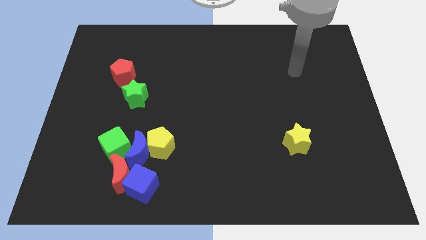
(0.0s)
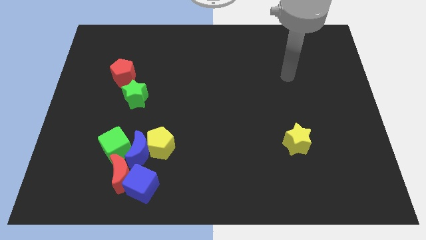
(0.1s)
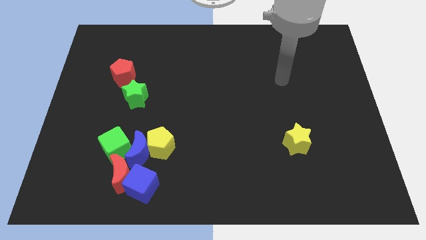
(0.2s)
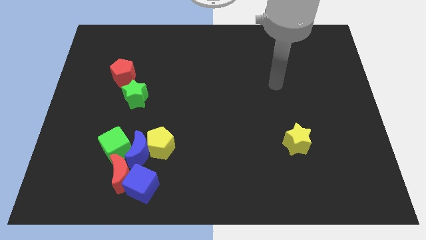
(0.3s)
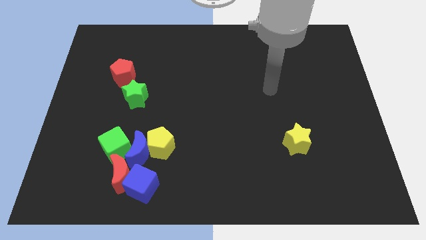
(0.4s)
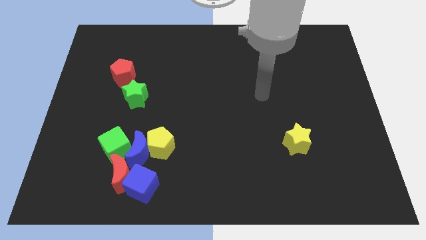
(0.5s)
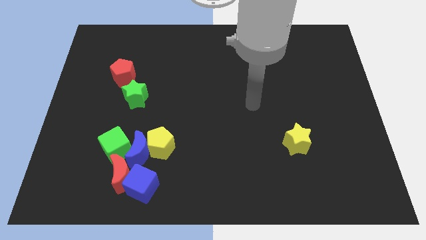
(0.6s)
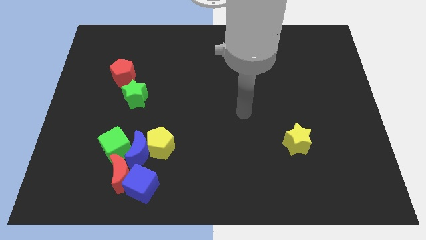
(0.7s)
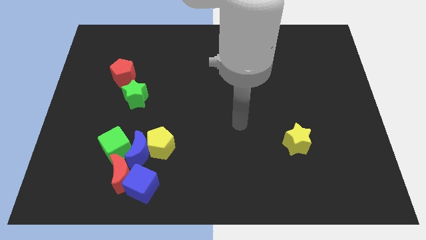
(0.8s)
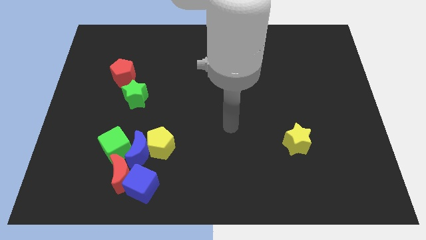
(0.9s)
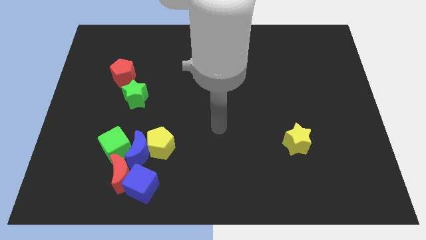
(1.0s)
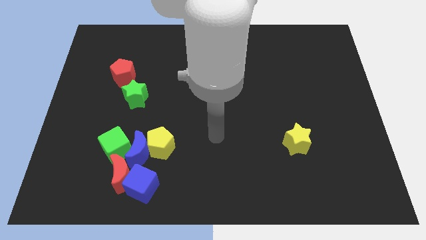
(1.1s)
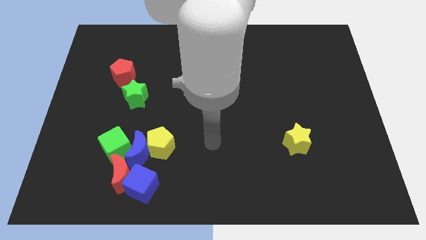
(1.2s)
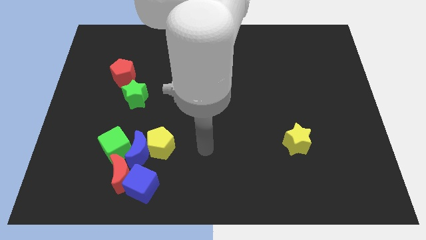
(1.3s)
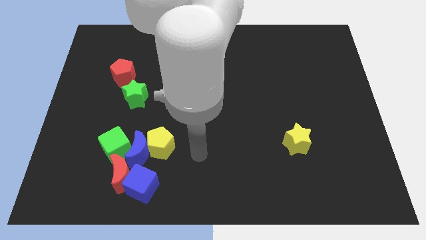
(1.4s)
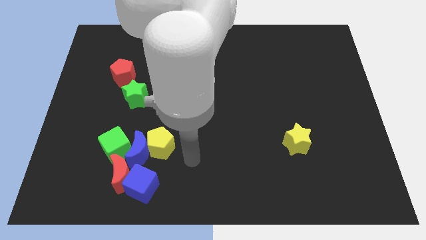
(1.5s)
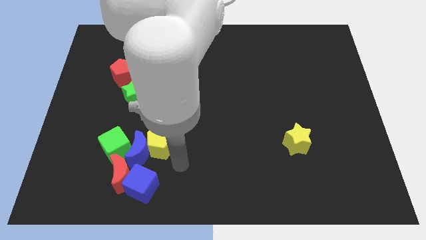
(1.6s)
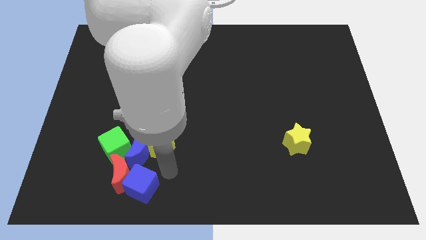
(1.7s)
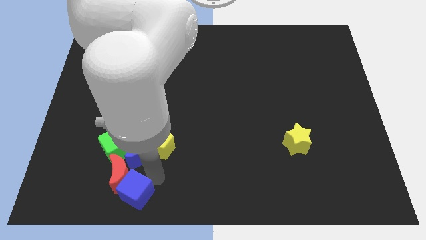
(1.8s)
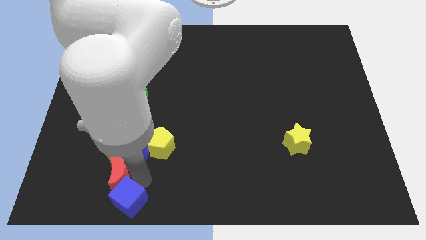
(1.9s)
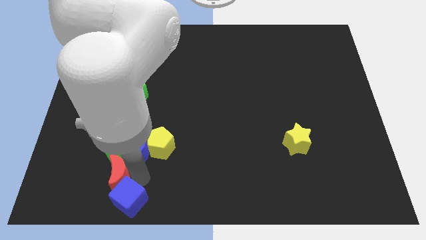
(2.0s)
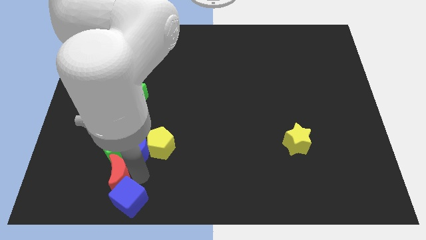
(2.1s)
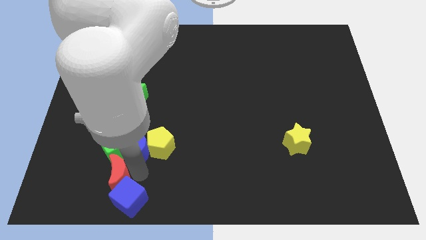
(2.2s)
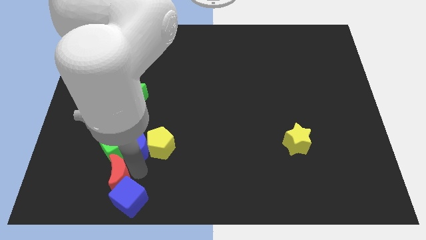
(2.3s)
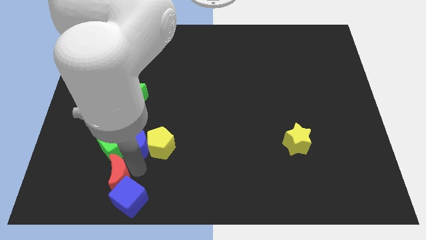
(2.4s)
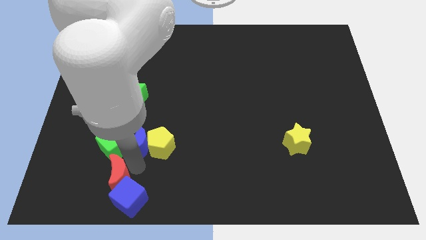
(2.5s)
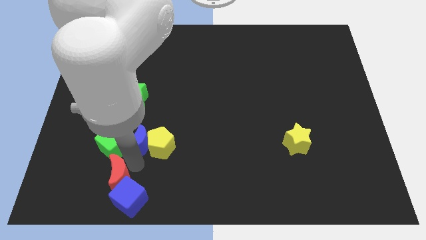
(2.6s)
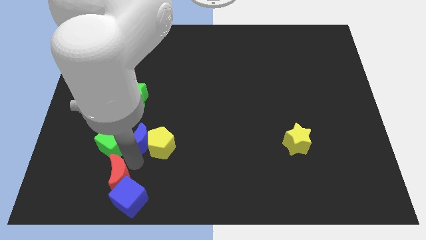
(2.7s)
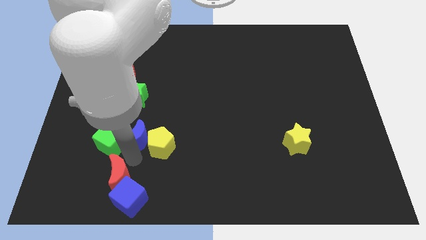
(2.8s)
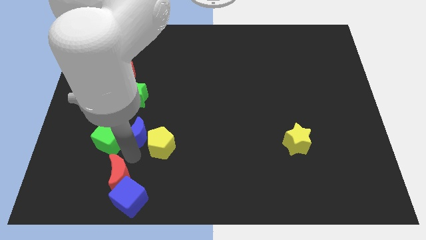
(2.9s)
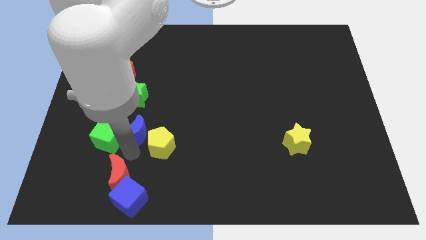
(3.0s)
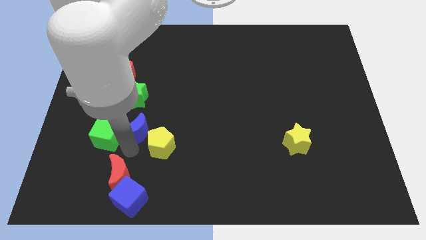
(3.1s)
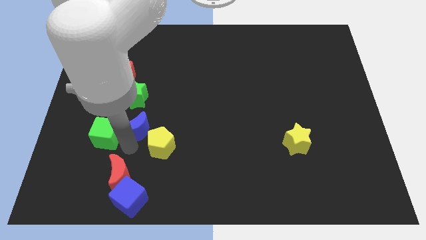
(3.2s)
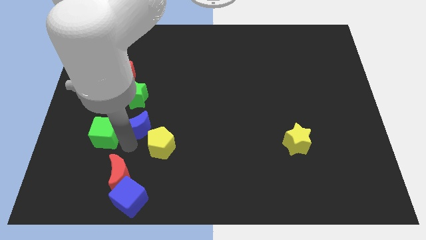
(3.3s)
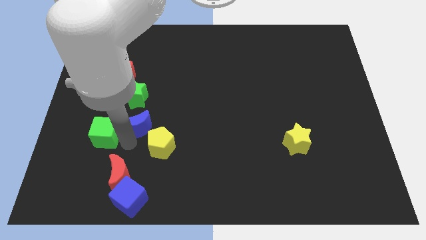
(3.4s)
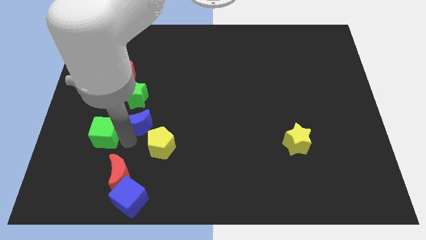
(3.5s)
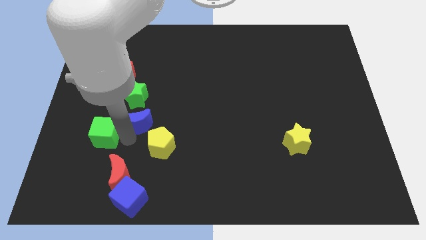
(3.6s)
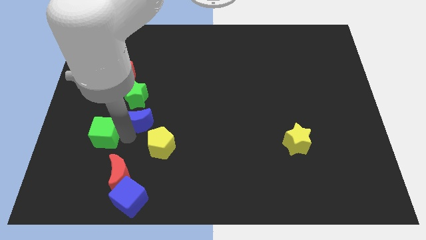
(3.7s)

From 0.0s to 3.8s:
pull the blue moon apart from the group

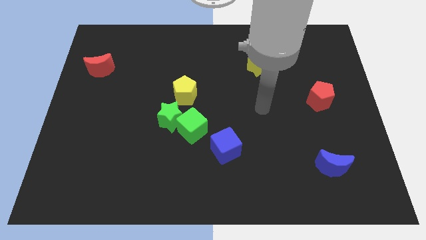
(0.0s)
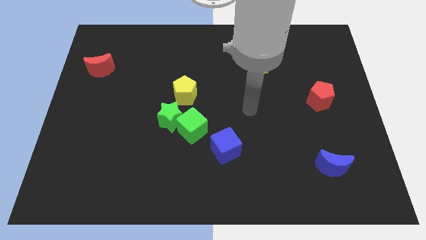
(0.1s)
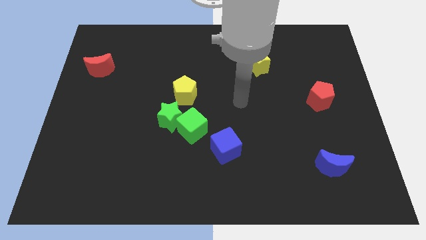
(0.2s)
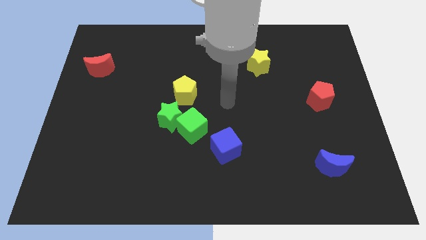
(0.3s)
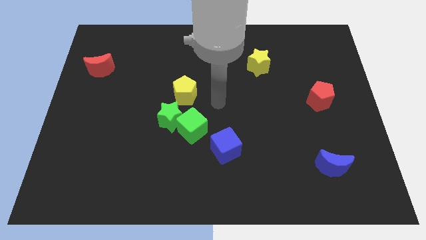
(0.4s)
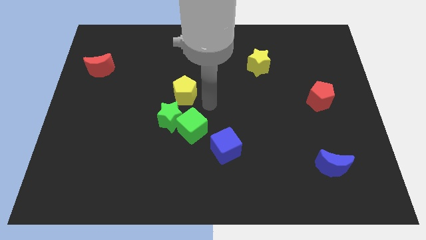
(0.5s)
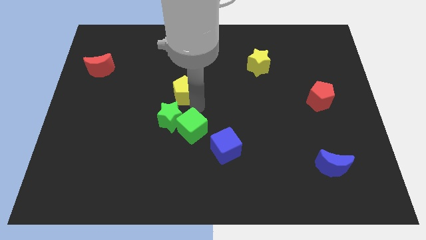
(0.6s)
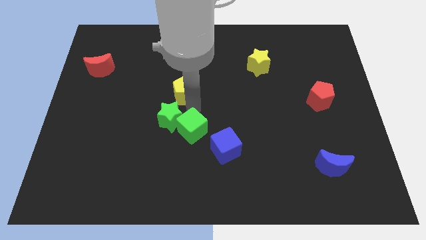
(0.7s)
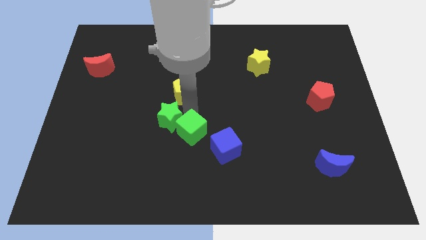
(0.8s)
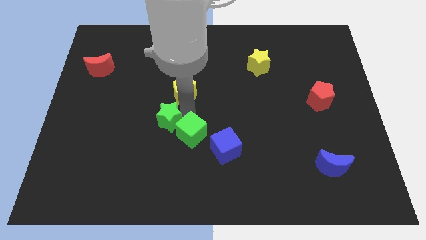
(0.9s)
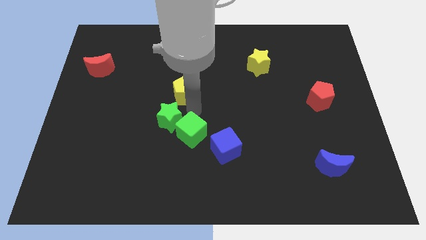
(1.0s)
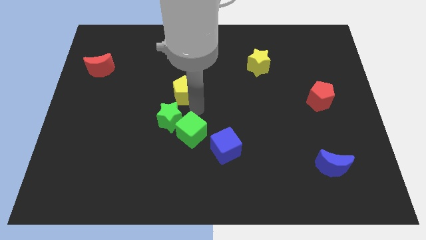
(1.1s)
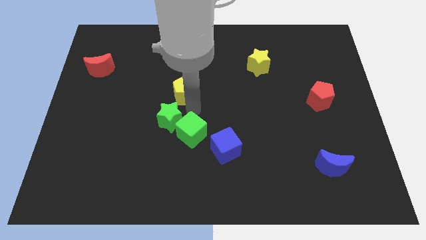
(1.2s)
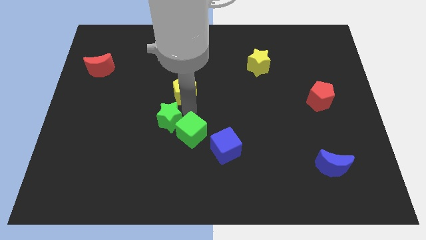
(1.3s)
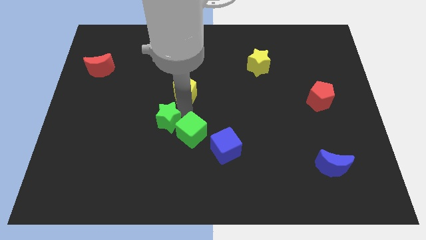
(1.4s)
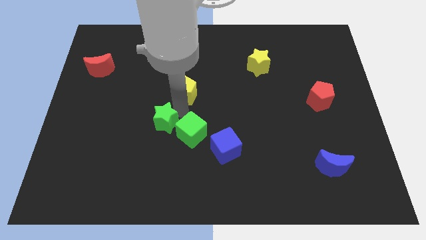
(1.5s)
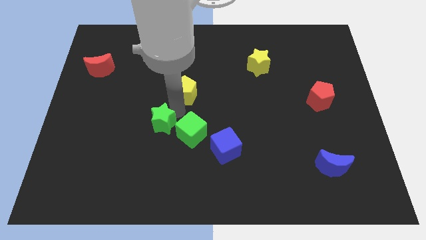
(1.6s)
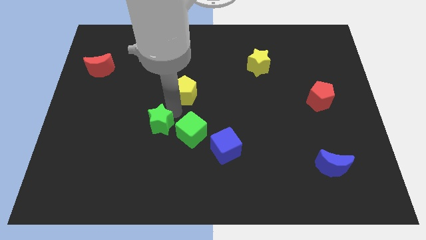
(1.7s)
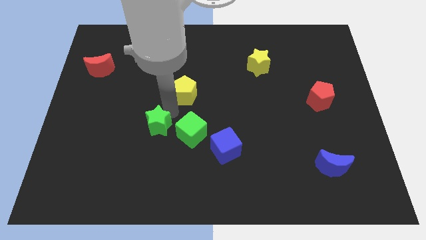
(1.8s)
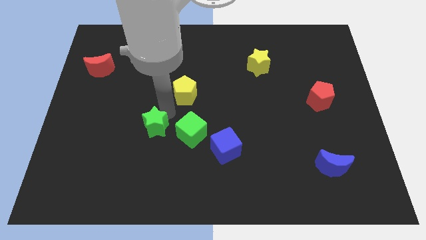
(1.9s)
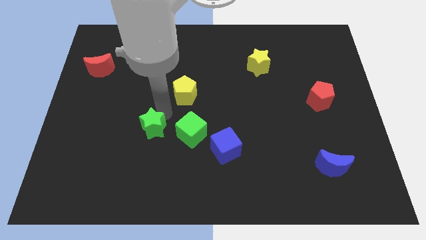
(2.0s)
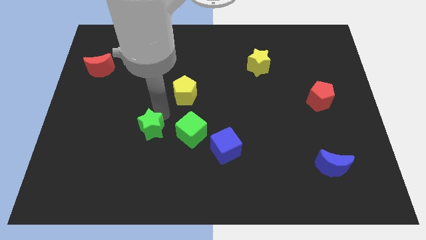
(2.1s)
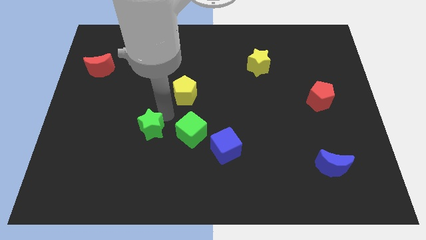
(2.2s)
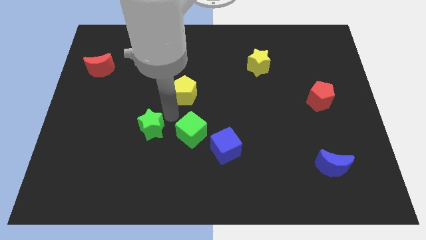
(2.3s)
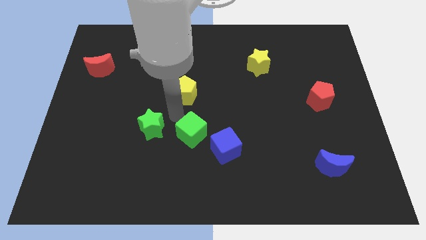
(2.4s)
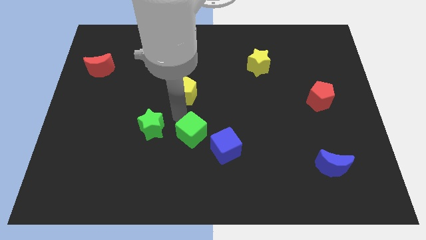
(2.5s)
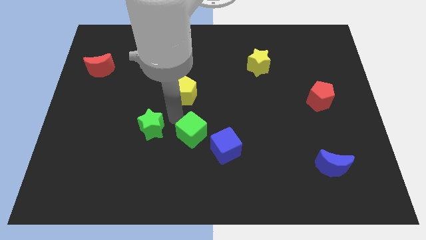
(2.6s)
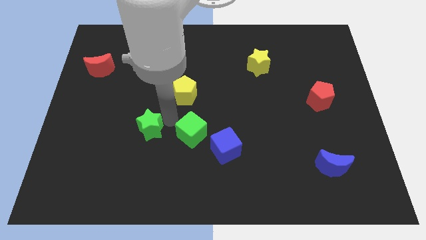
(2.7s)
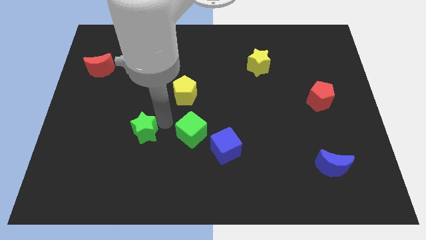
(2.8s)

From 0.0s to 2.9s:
separate the green star from the green cube and yellow pentagon

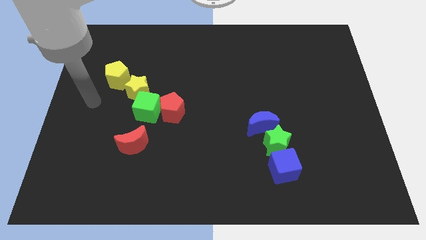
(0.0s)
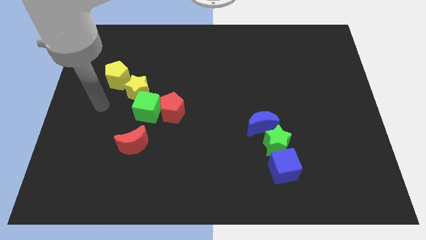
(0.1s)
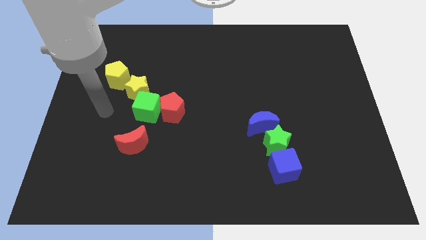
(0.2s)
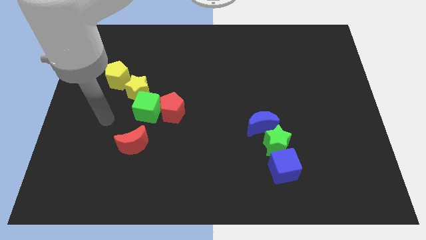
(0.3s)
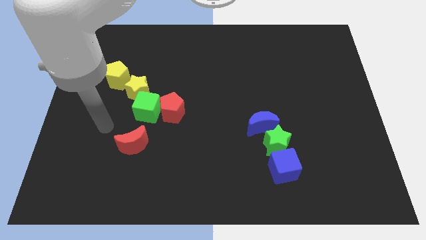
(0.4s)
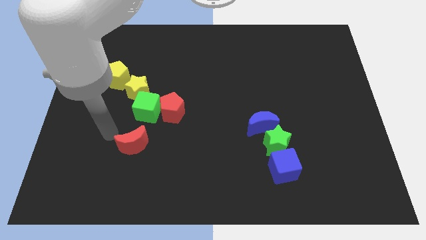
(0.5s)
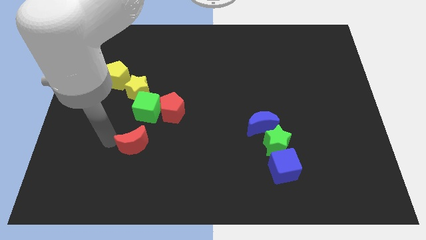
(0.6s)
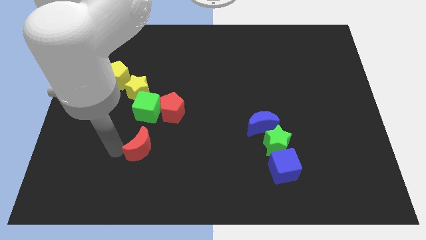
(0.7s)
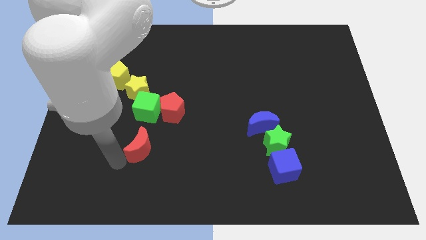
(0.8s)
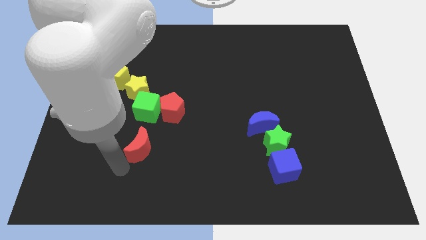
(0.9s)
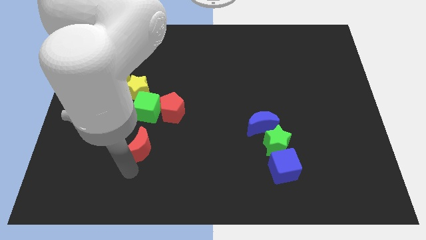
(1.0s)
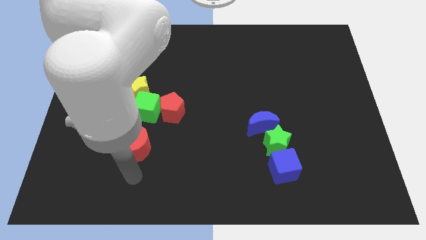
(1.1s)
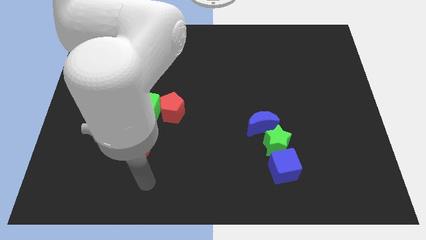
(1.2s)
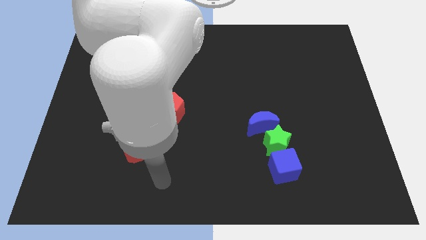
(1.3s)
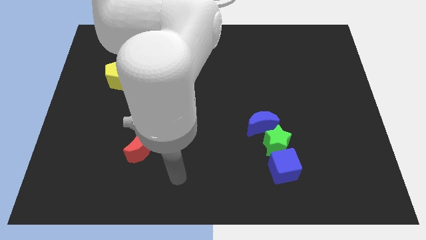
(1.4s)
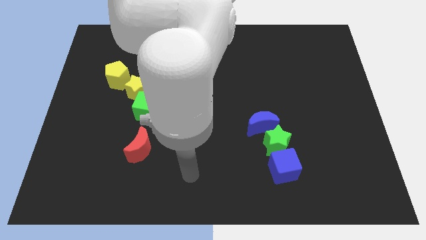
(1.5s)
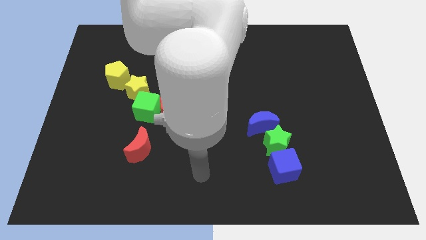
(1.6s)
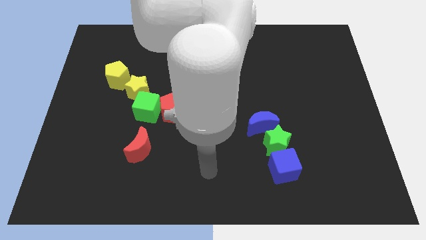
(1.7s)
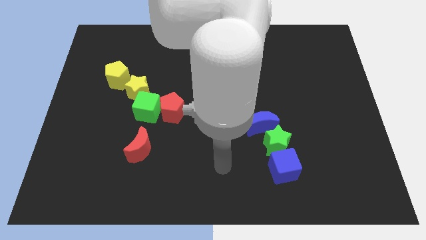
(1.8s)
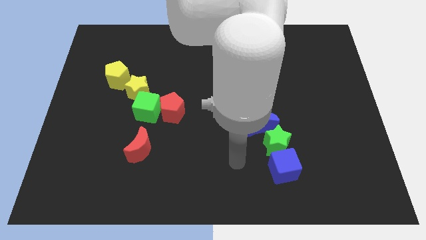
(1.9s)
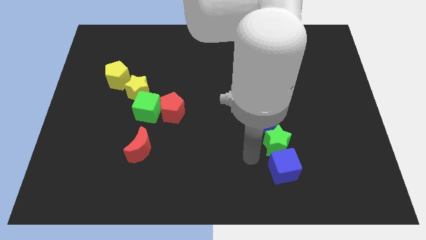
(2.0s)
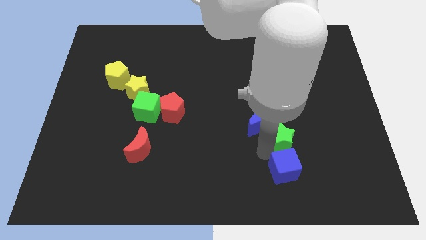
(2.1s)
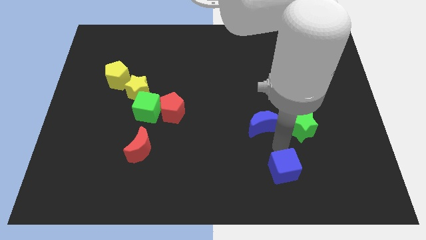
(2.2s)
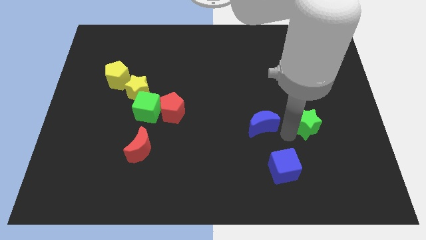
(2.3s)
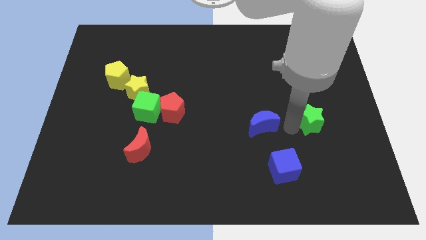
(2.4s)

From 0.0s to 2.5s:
pull the blue moon apart from the green star

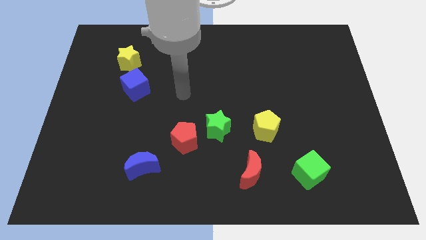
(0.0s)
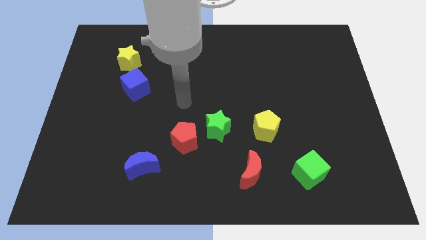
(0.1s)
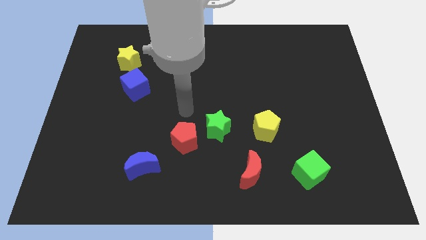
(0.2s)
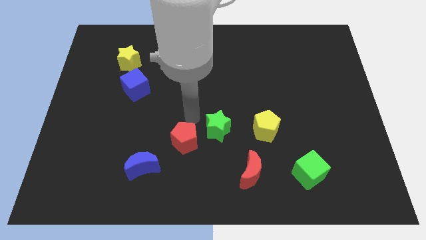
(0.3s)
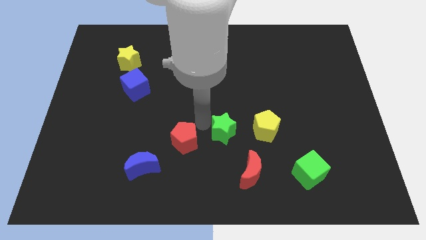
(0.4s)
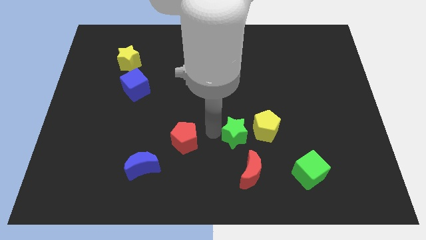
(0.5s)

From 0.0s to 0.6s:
separate the red pentagon from the green star
